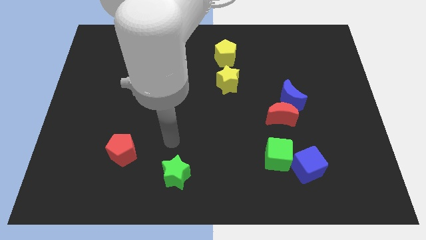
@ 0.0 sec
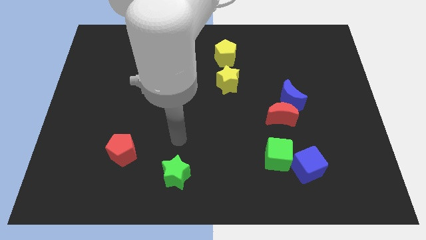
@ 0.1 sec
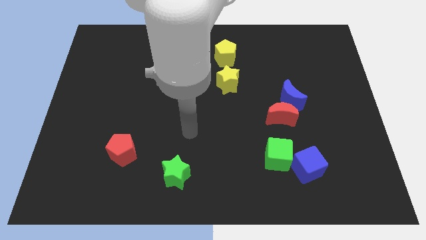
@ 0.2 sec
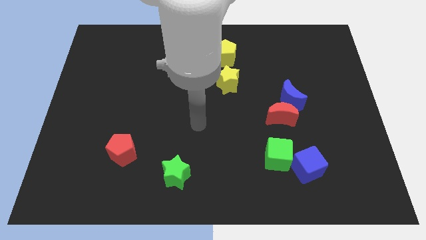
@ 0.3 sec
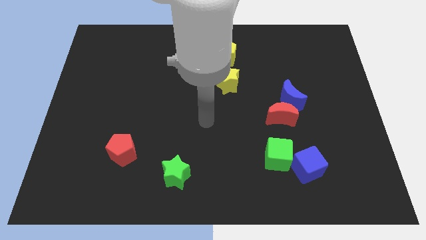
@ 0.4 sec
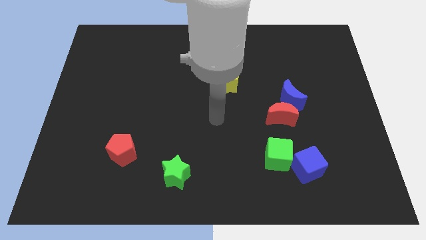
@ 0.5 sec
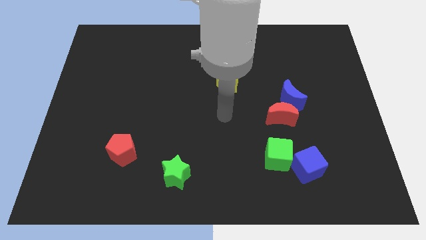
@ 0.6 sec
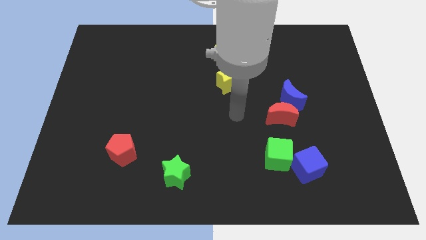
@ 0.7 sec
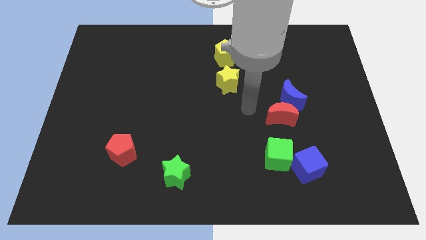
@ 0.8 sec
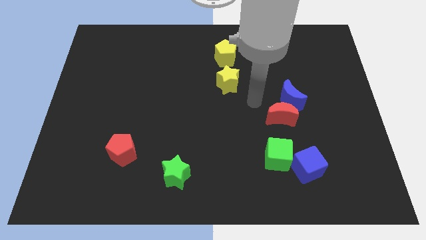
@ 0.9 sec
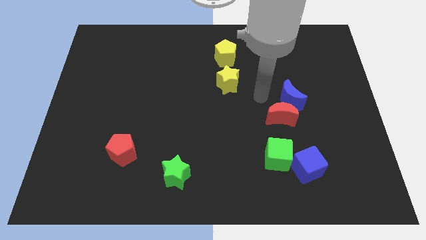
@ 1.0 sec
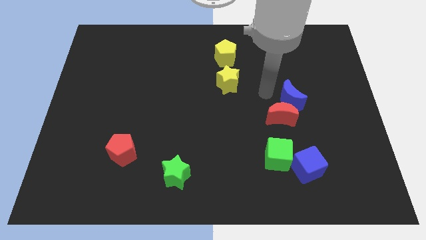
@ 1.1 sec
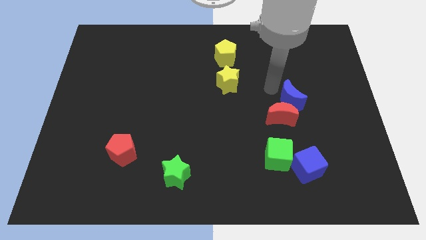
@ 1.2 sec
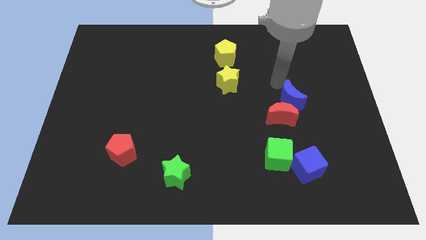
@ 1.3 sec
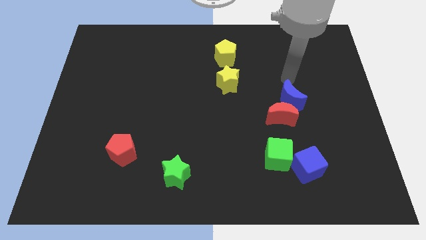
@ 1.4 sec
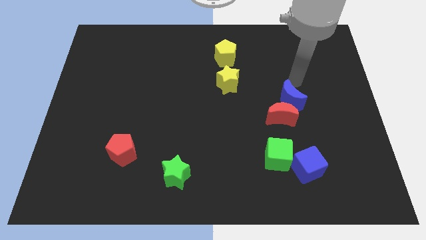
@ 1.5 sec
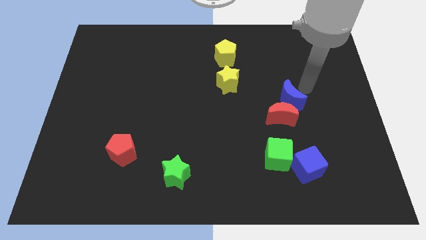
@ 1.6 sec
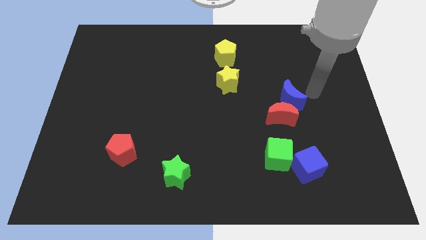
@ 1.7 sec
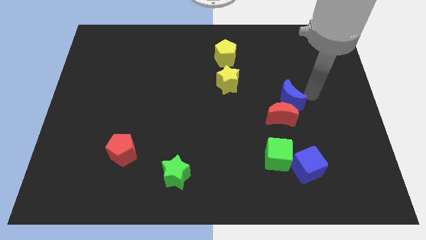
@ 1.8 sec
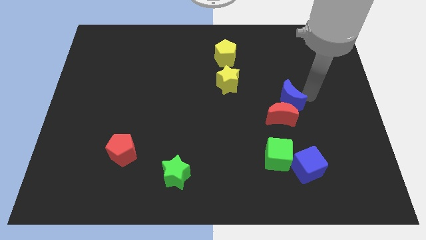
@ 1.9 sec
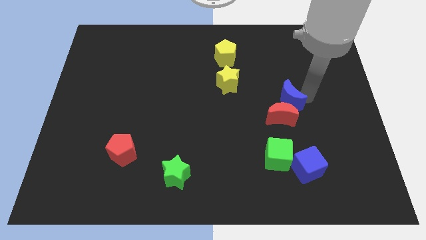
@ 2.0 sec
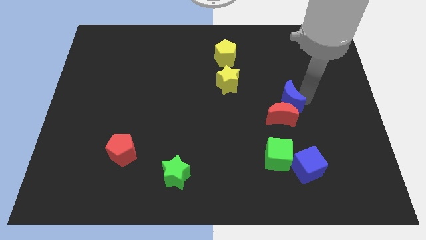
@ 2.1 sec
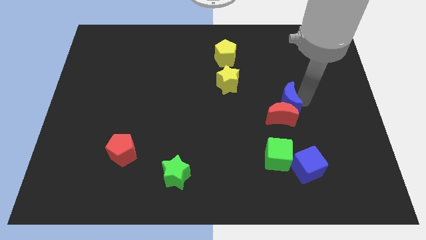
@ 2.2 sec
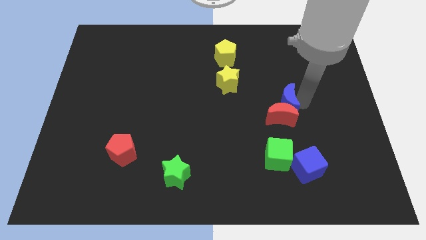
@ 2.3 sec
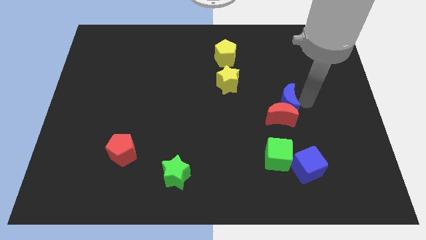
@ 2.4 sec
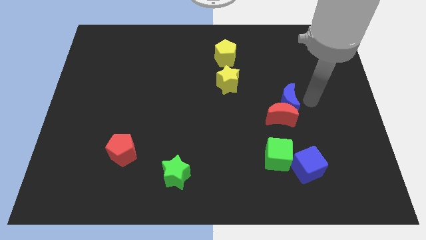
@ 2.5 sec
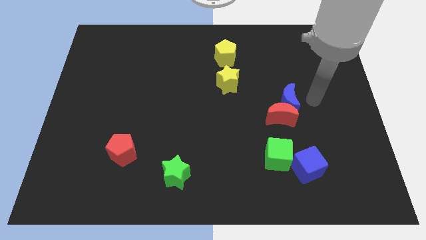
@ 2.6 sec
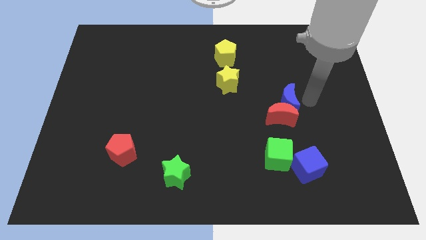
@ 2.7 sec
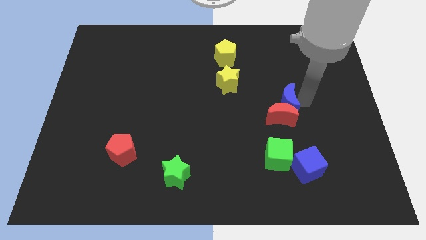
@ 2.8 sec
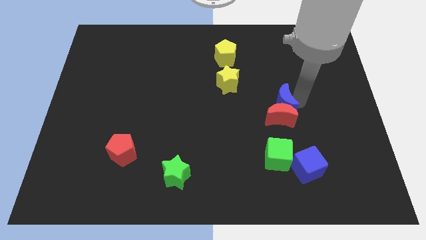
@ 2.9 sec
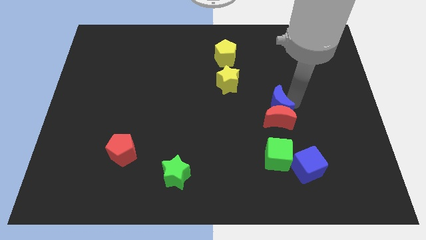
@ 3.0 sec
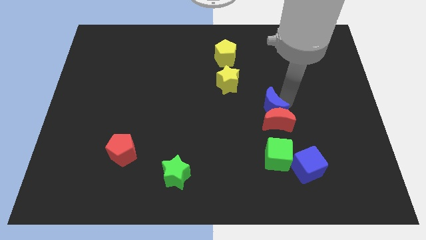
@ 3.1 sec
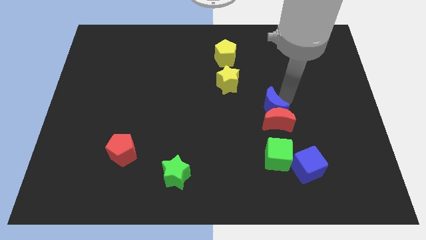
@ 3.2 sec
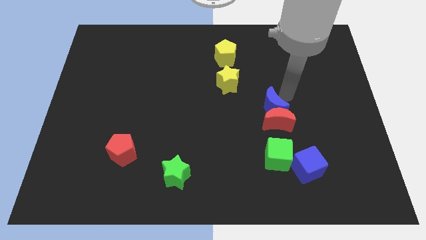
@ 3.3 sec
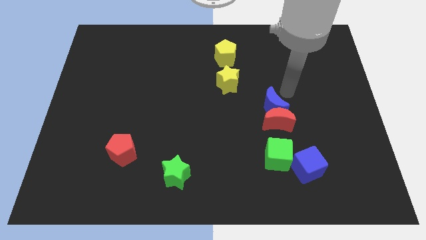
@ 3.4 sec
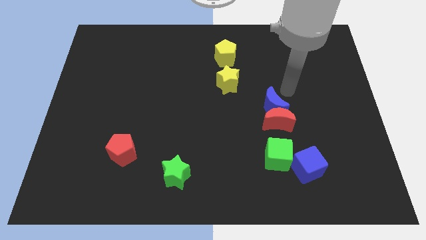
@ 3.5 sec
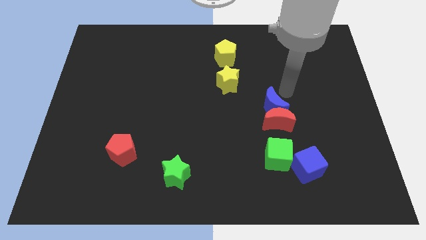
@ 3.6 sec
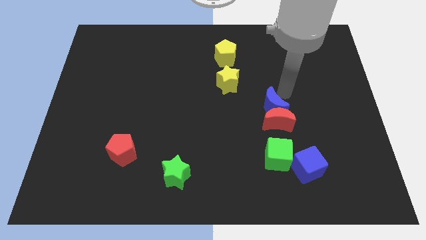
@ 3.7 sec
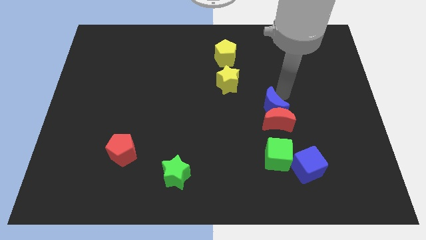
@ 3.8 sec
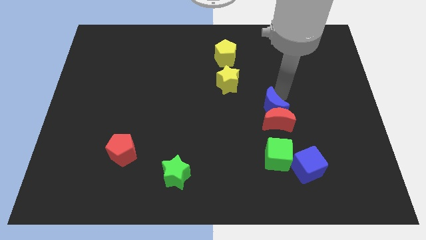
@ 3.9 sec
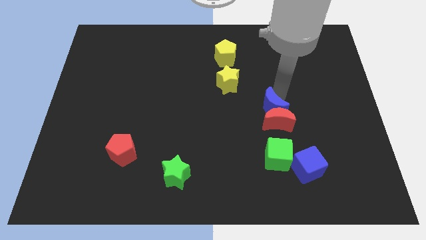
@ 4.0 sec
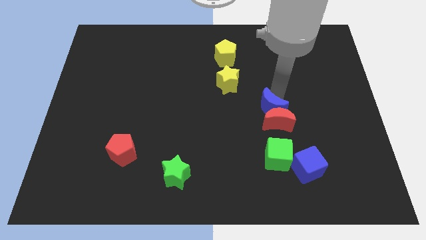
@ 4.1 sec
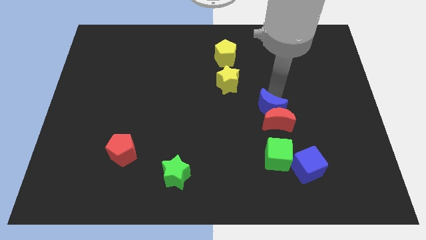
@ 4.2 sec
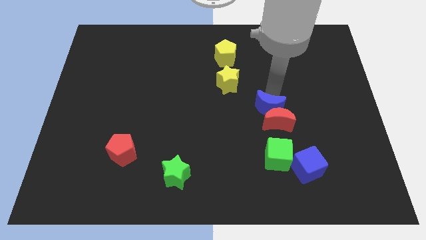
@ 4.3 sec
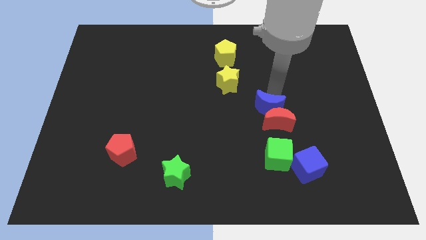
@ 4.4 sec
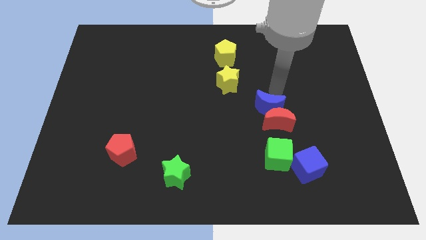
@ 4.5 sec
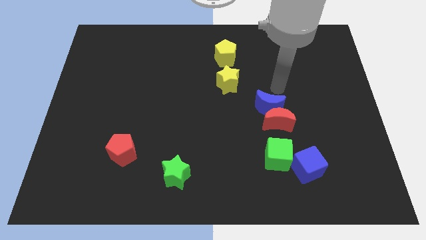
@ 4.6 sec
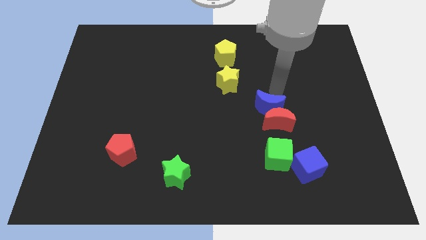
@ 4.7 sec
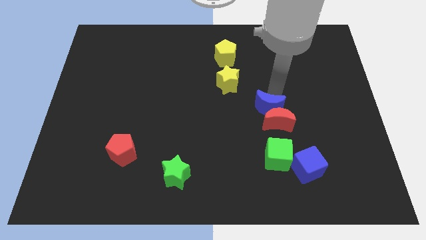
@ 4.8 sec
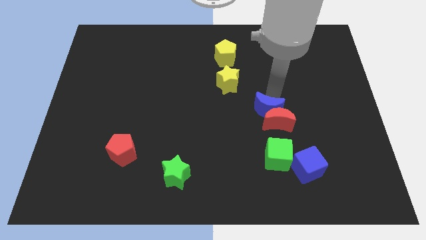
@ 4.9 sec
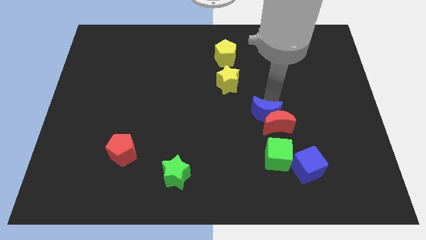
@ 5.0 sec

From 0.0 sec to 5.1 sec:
slightly move the blue moon down and left diagonally

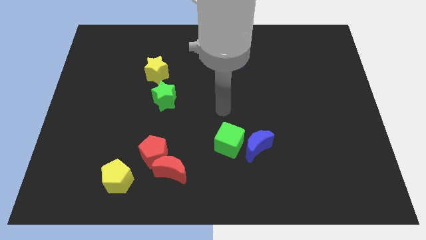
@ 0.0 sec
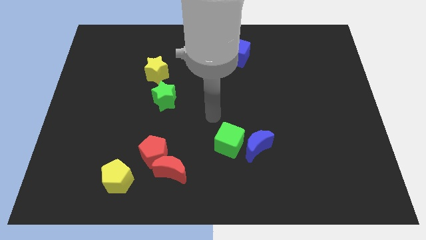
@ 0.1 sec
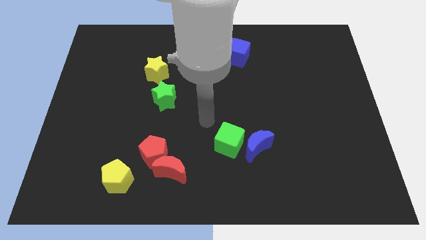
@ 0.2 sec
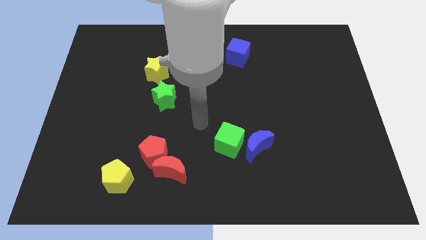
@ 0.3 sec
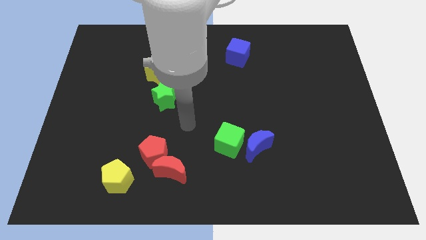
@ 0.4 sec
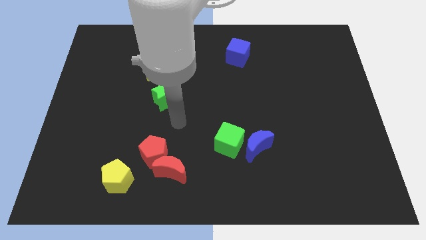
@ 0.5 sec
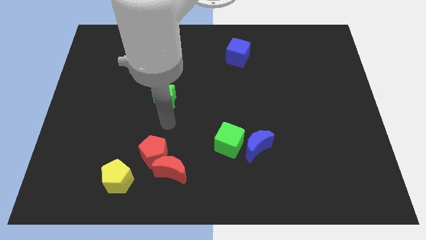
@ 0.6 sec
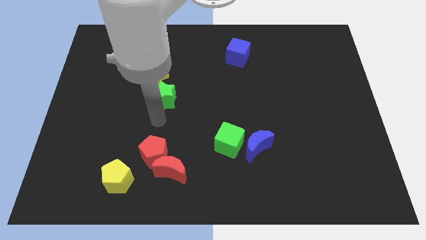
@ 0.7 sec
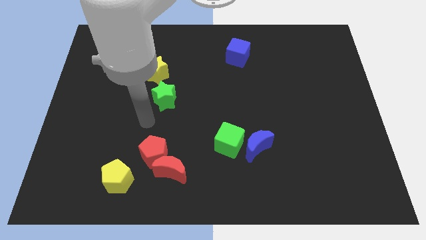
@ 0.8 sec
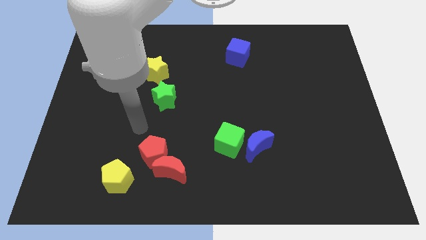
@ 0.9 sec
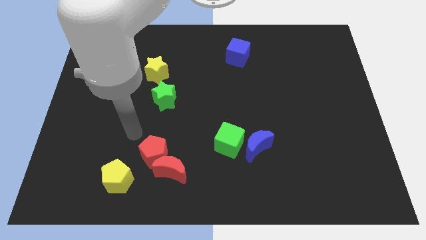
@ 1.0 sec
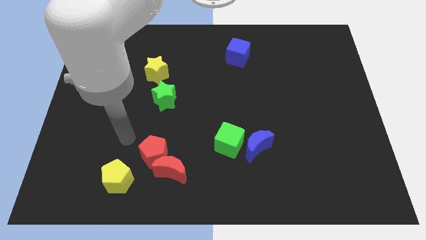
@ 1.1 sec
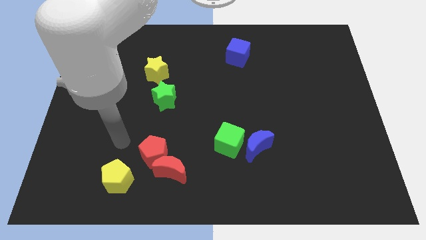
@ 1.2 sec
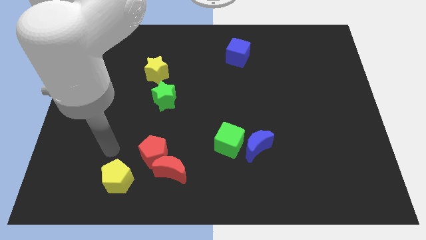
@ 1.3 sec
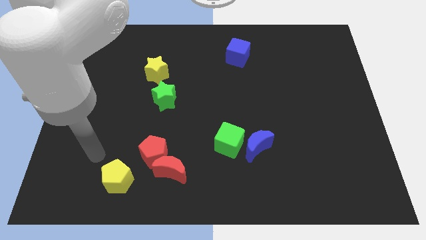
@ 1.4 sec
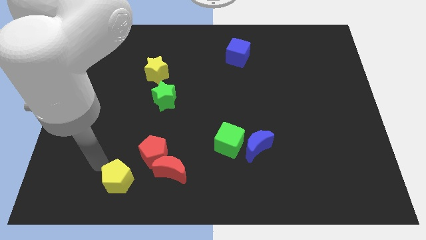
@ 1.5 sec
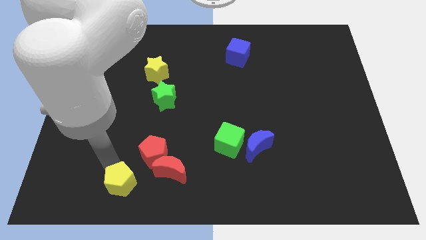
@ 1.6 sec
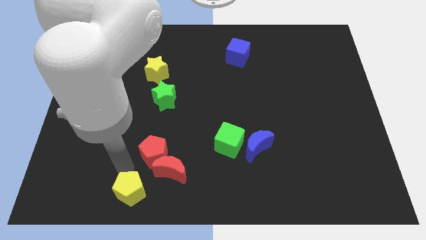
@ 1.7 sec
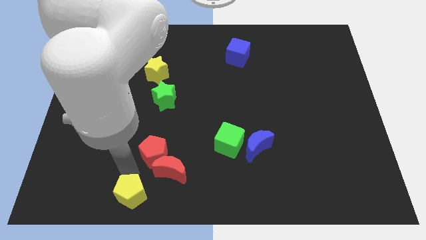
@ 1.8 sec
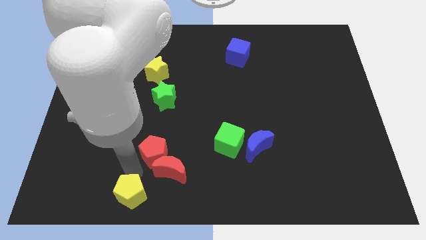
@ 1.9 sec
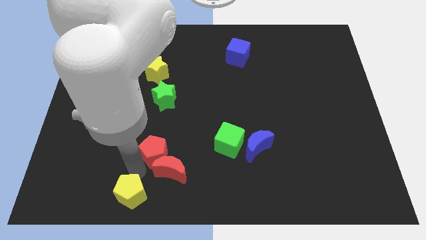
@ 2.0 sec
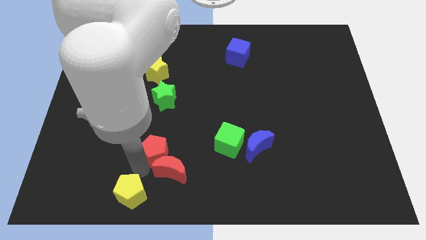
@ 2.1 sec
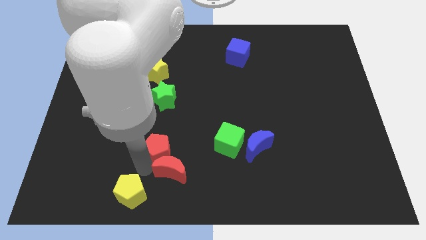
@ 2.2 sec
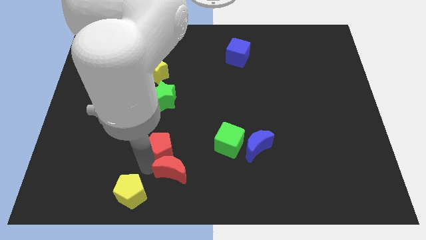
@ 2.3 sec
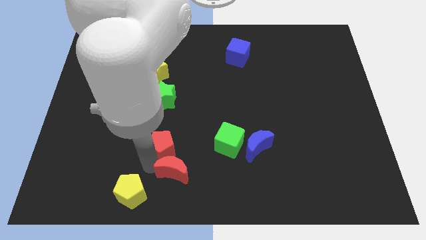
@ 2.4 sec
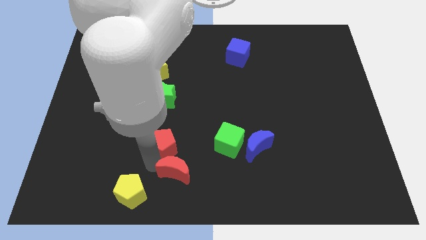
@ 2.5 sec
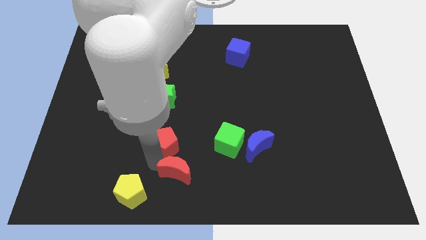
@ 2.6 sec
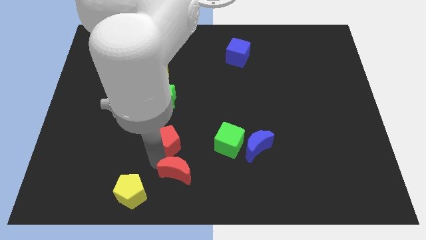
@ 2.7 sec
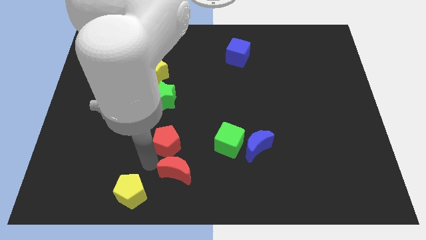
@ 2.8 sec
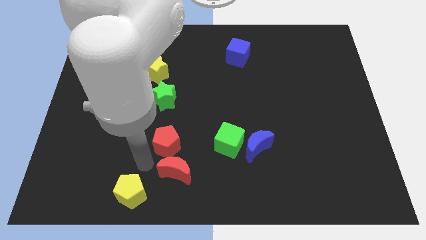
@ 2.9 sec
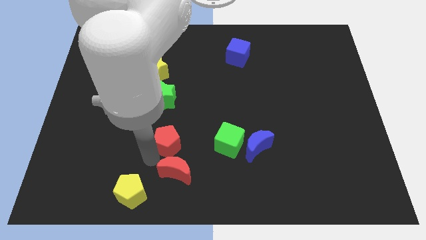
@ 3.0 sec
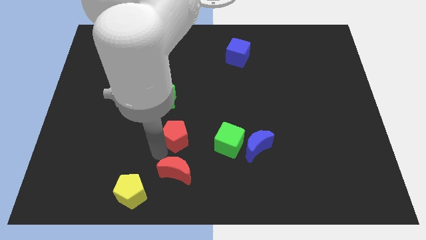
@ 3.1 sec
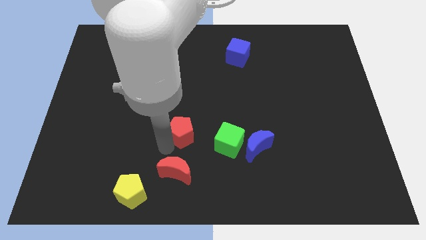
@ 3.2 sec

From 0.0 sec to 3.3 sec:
slide the red pentagon a little diagonally up and to the right
